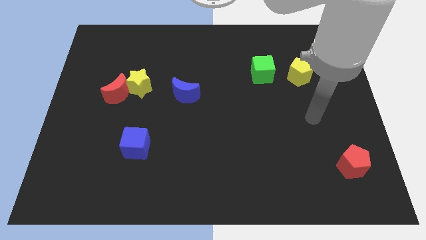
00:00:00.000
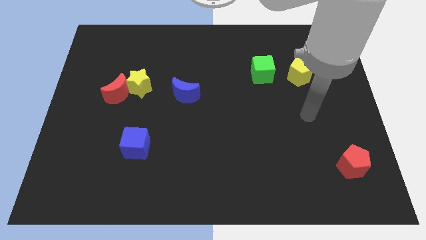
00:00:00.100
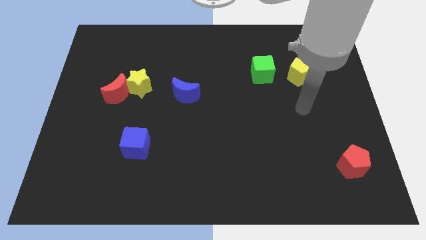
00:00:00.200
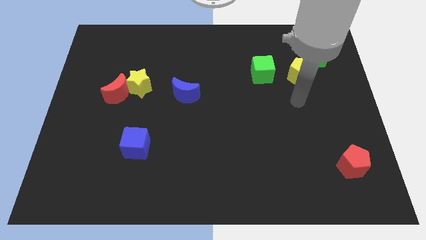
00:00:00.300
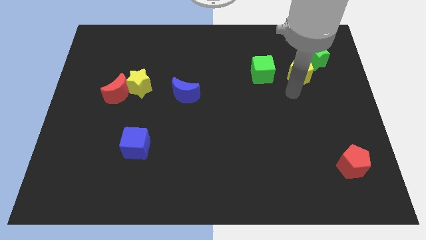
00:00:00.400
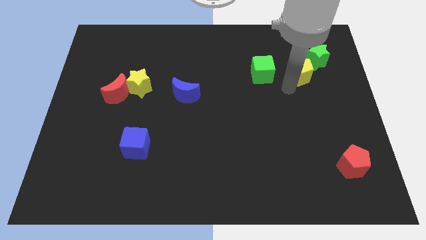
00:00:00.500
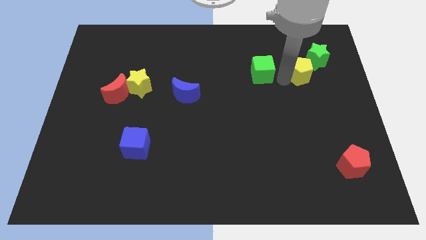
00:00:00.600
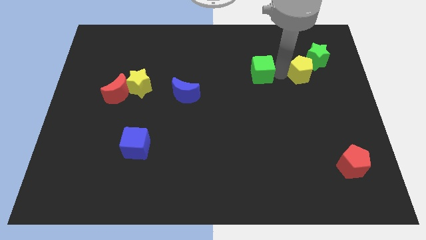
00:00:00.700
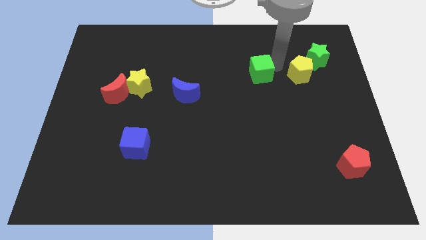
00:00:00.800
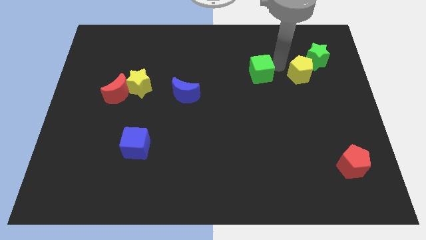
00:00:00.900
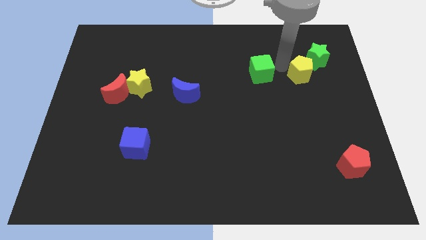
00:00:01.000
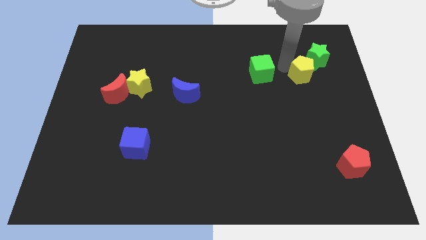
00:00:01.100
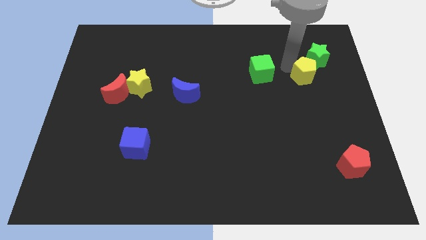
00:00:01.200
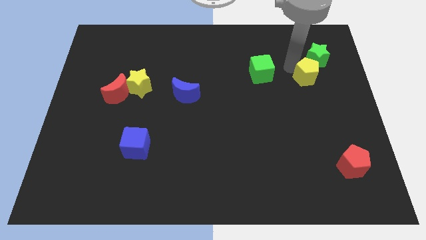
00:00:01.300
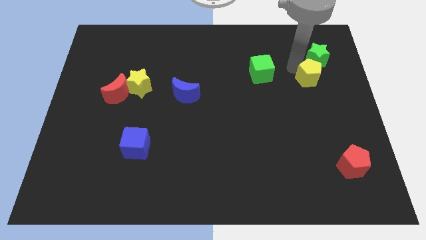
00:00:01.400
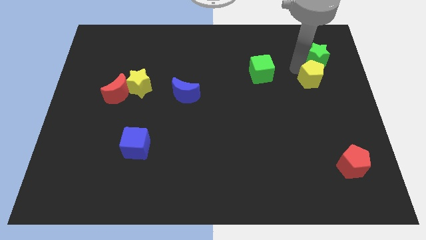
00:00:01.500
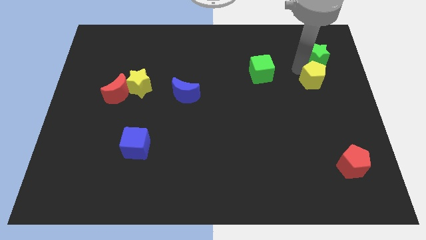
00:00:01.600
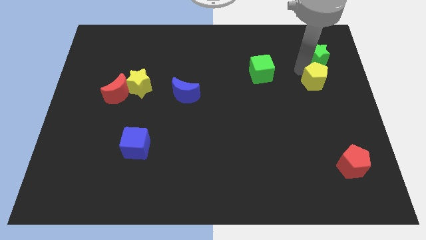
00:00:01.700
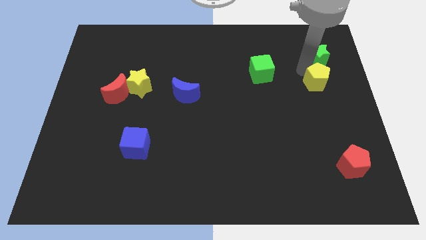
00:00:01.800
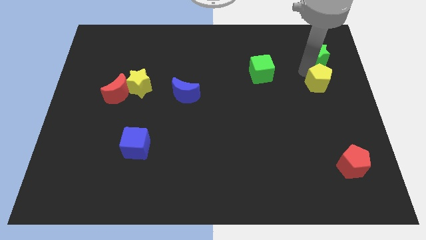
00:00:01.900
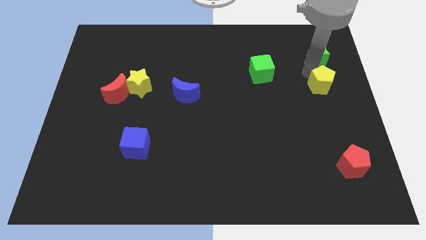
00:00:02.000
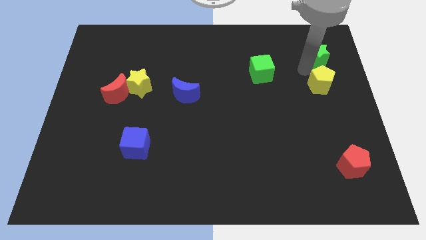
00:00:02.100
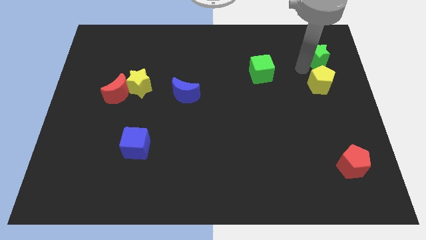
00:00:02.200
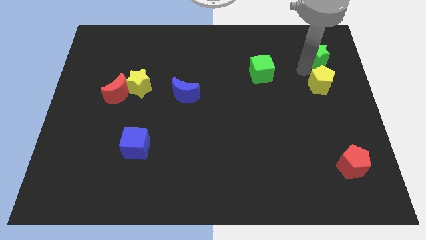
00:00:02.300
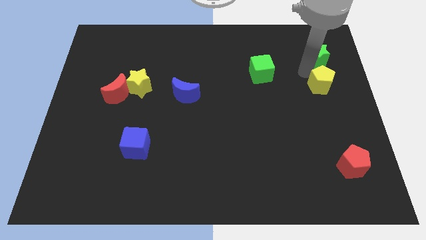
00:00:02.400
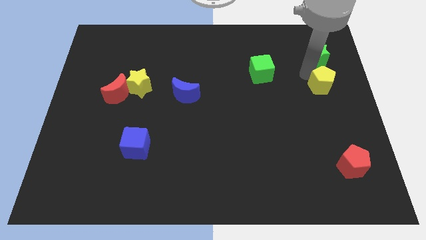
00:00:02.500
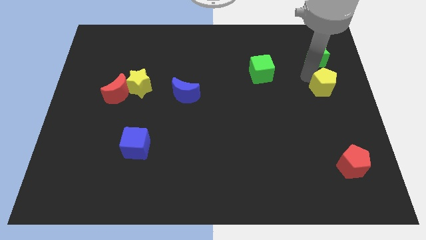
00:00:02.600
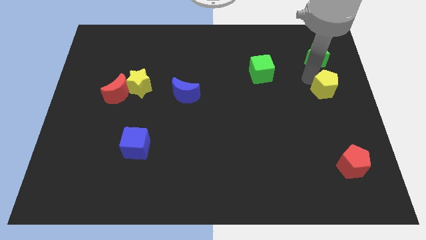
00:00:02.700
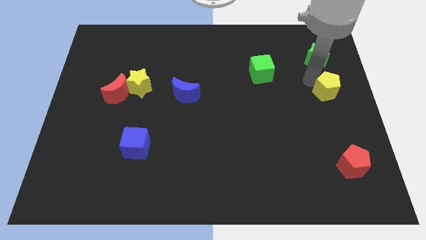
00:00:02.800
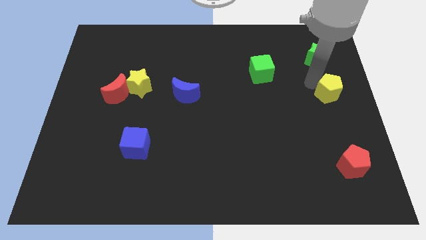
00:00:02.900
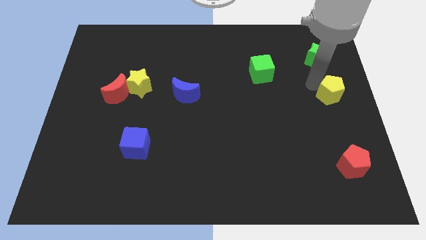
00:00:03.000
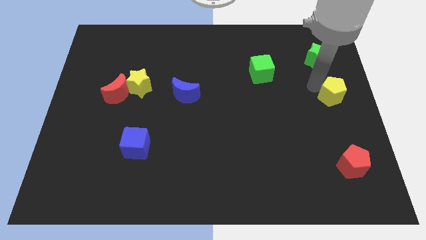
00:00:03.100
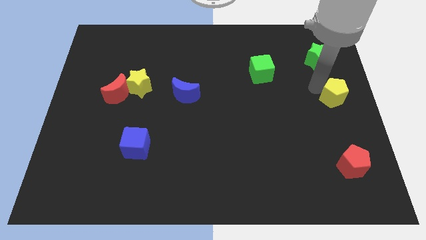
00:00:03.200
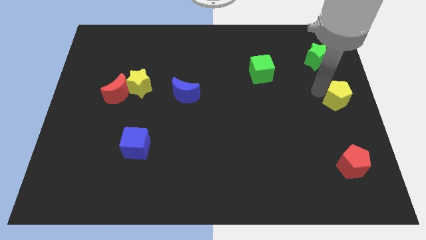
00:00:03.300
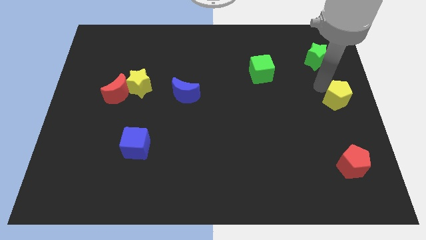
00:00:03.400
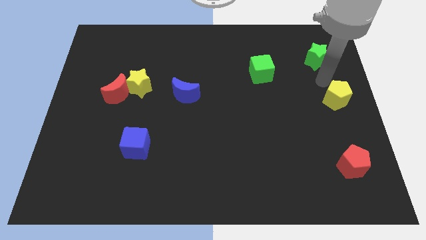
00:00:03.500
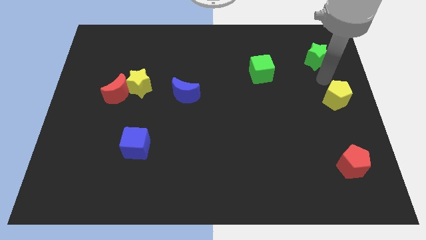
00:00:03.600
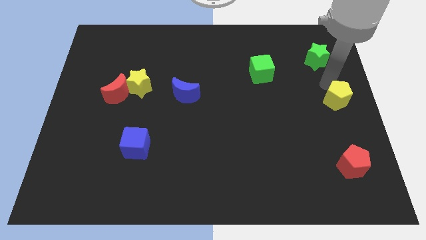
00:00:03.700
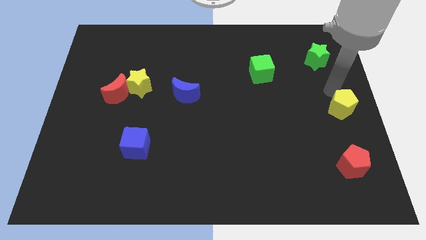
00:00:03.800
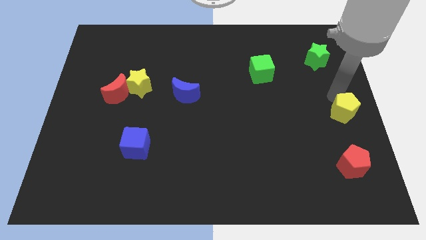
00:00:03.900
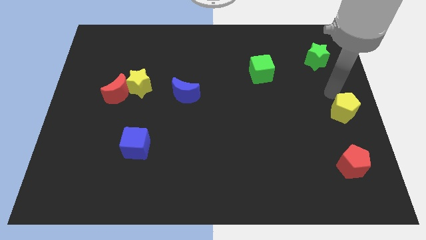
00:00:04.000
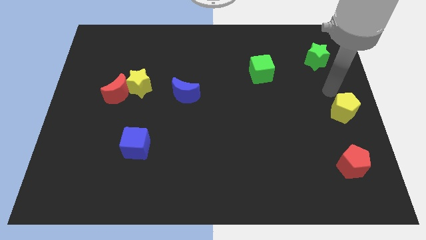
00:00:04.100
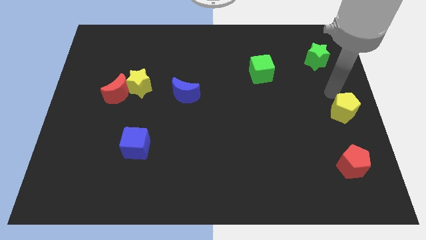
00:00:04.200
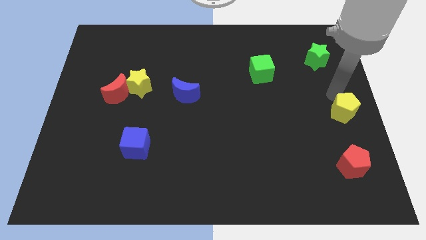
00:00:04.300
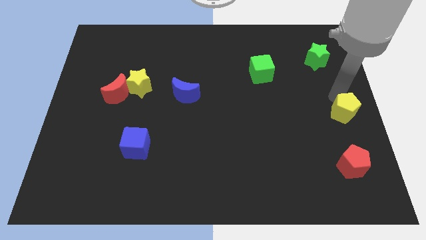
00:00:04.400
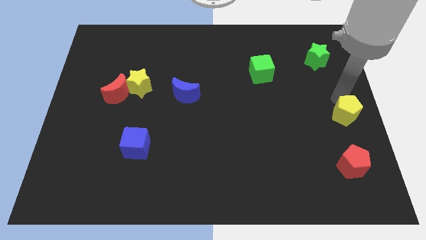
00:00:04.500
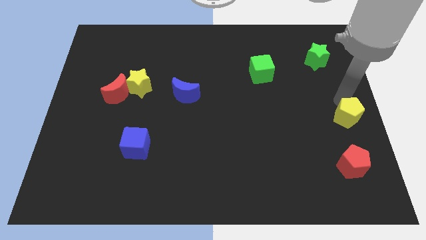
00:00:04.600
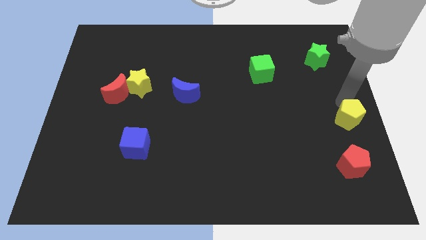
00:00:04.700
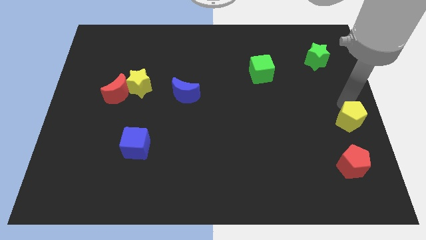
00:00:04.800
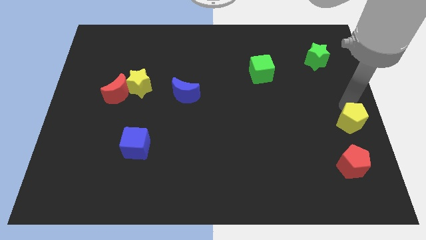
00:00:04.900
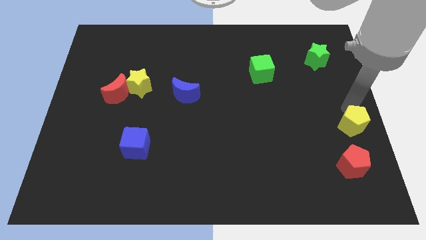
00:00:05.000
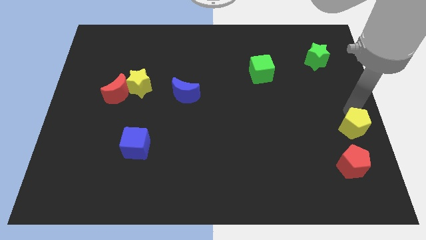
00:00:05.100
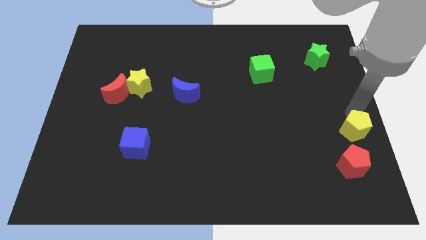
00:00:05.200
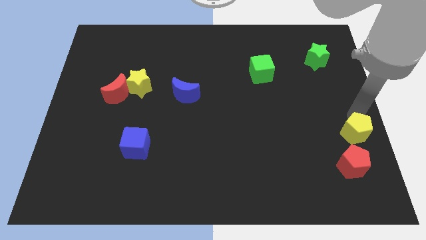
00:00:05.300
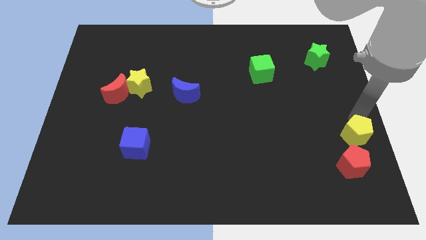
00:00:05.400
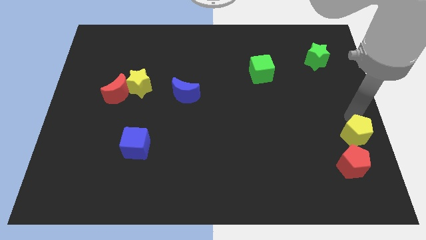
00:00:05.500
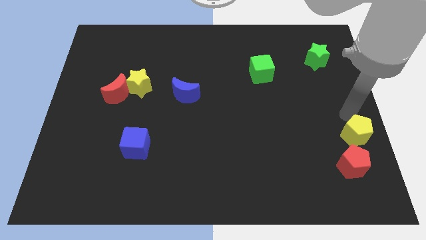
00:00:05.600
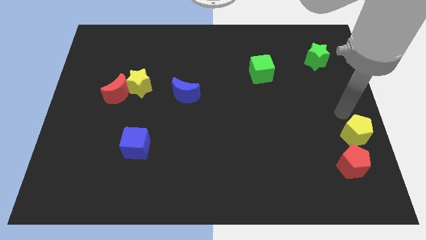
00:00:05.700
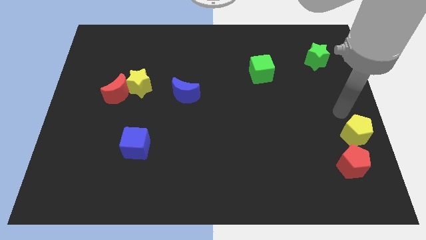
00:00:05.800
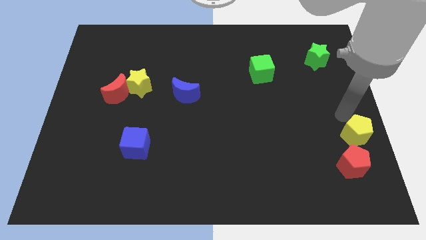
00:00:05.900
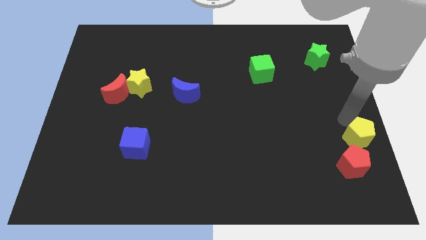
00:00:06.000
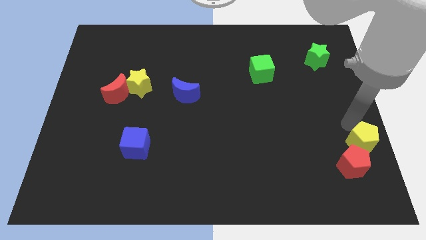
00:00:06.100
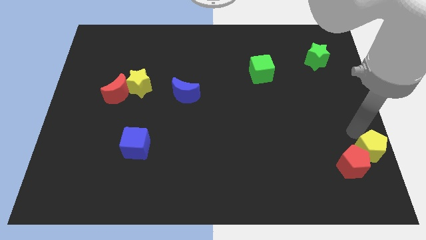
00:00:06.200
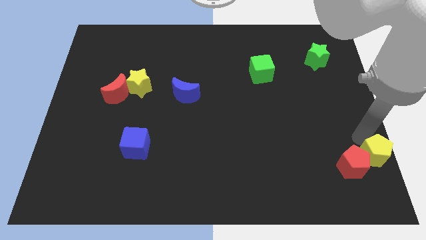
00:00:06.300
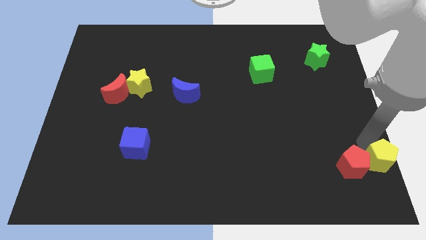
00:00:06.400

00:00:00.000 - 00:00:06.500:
slide the yellow pentagon to the lower right corner
